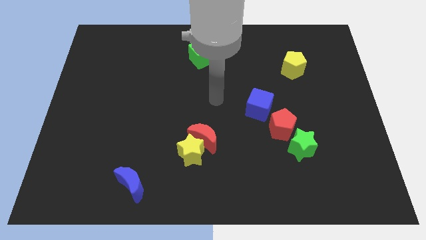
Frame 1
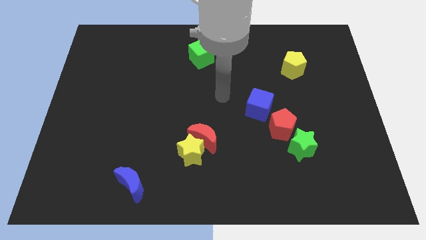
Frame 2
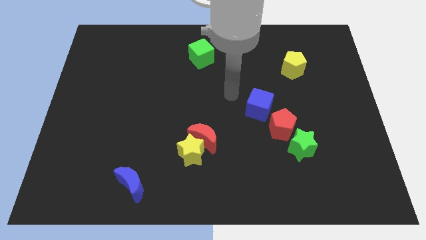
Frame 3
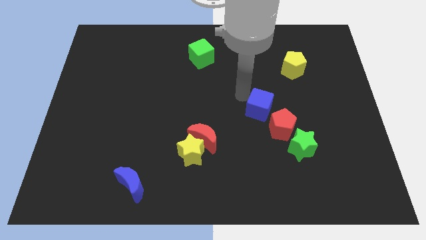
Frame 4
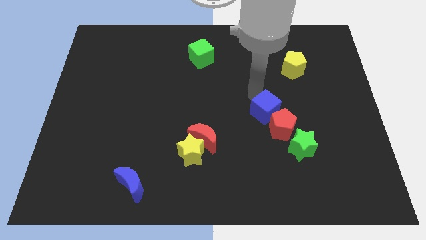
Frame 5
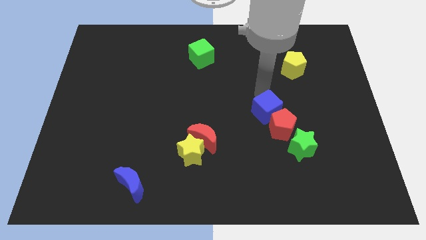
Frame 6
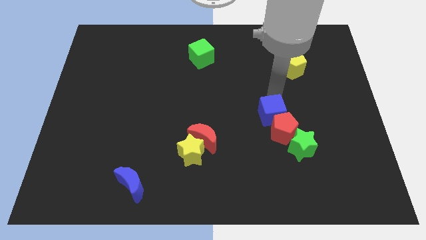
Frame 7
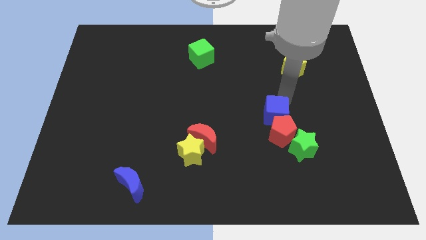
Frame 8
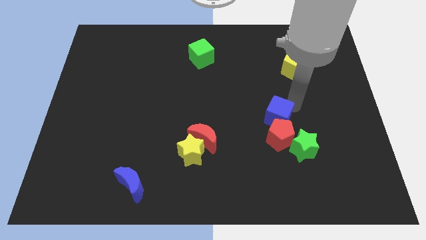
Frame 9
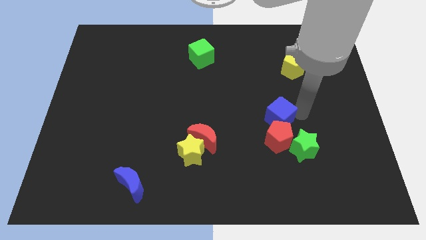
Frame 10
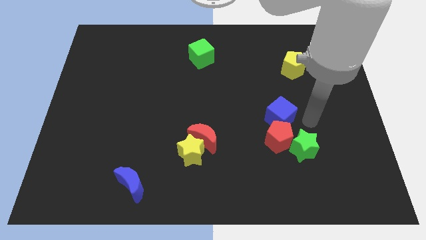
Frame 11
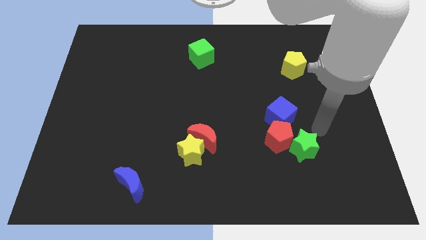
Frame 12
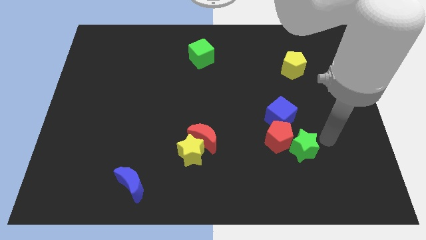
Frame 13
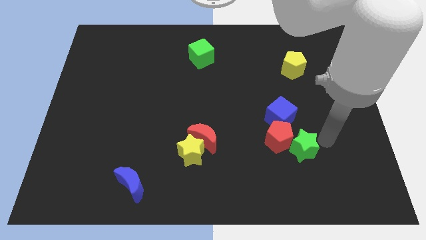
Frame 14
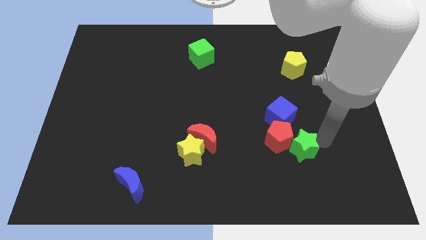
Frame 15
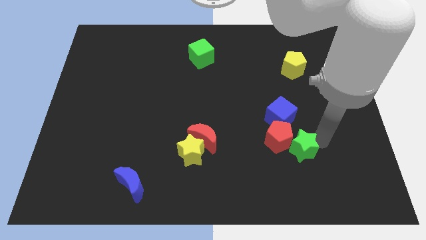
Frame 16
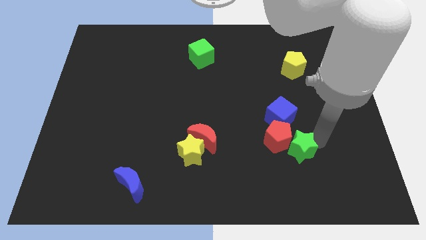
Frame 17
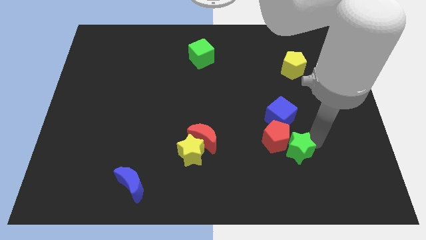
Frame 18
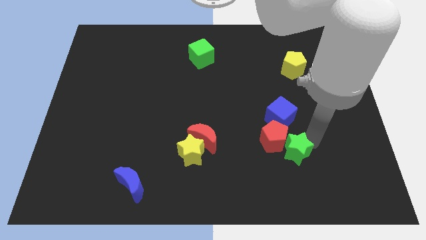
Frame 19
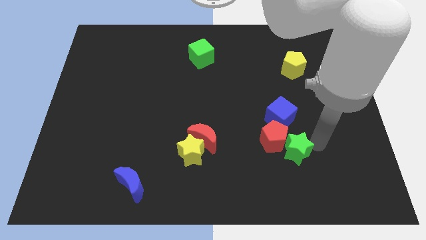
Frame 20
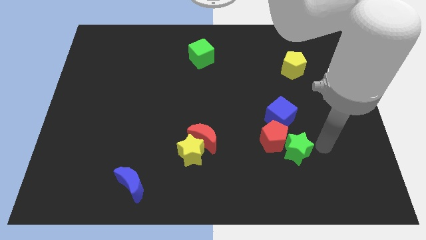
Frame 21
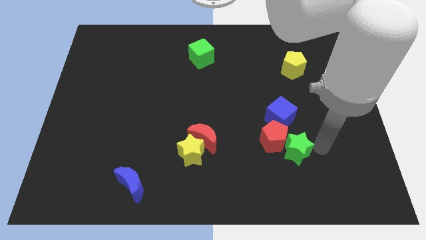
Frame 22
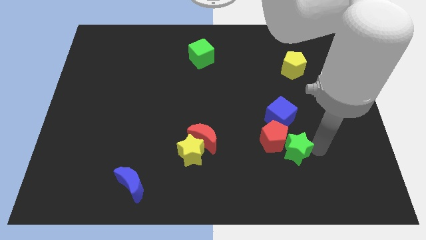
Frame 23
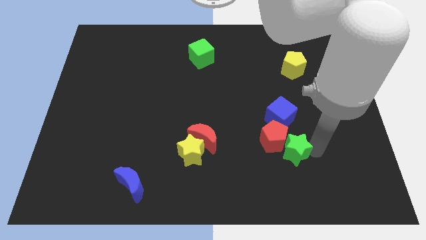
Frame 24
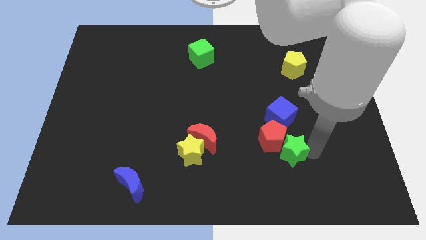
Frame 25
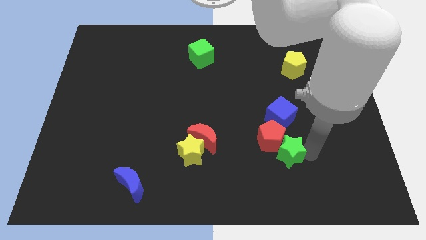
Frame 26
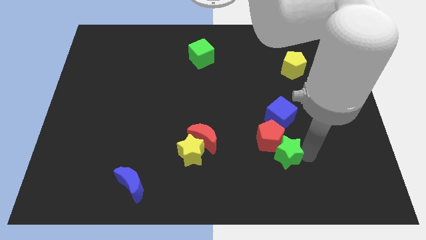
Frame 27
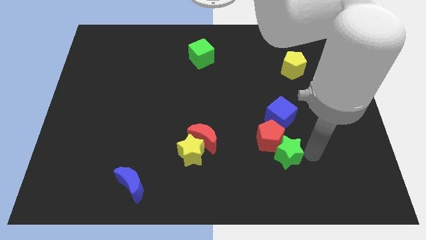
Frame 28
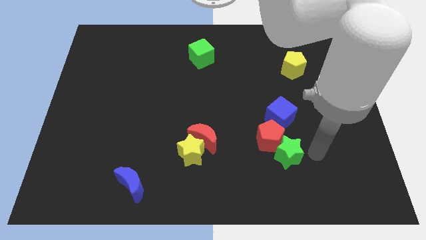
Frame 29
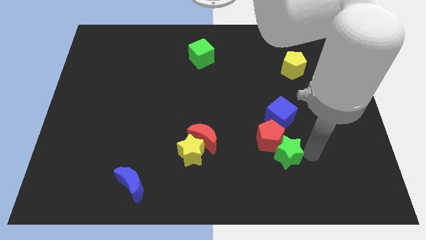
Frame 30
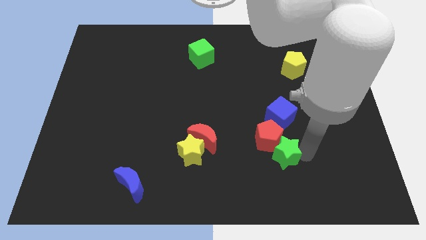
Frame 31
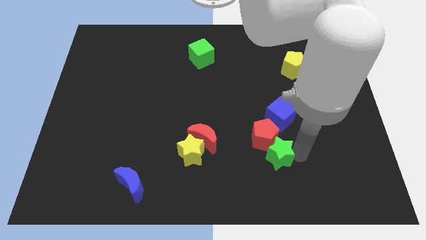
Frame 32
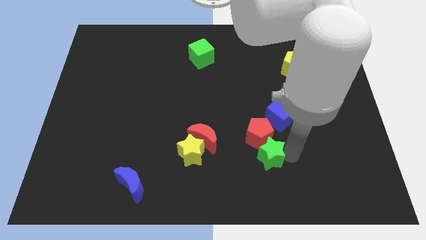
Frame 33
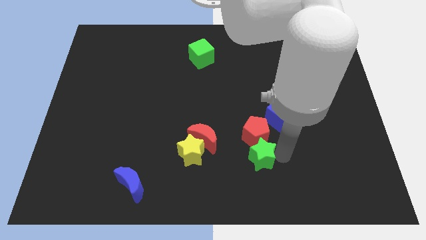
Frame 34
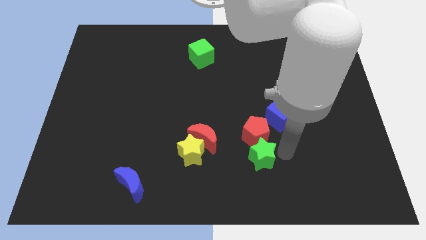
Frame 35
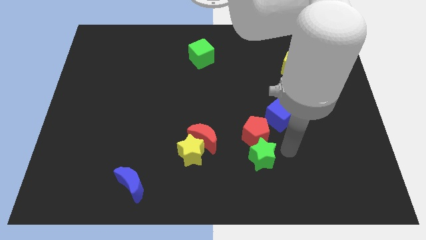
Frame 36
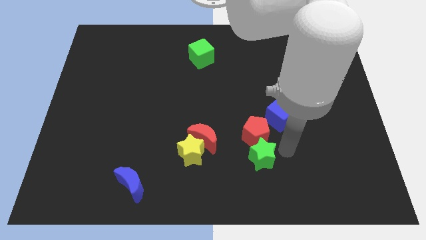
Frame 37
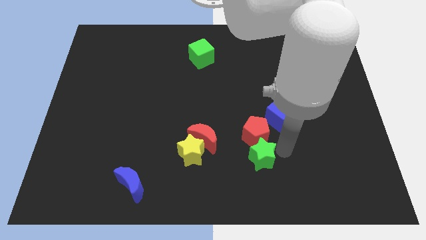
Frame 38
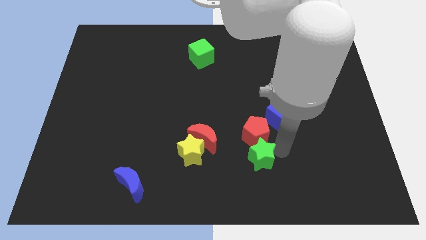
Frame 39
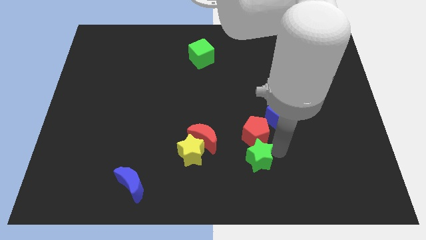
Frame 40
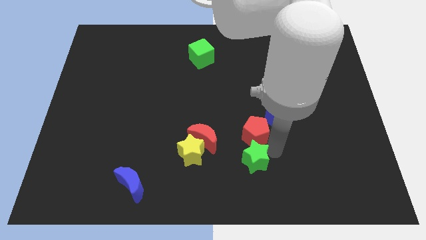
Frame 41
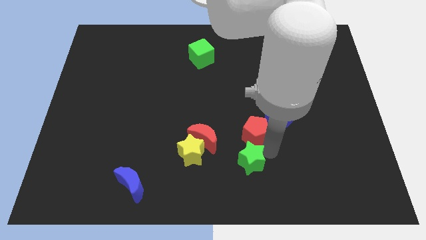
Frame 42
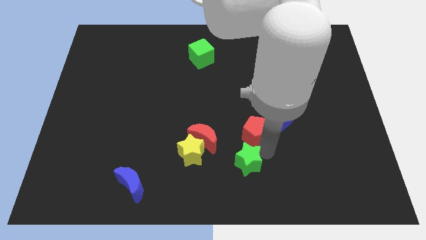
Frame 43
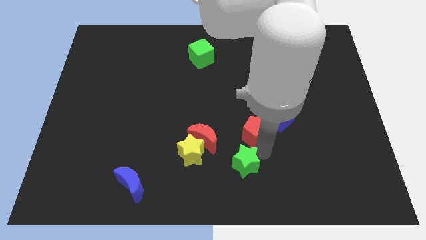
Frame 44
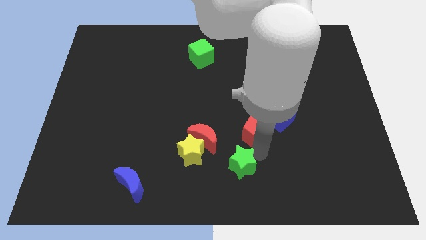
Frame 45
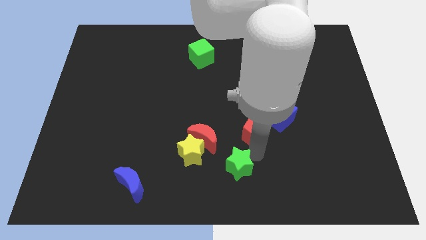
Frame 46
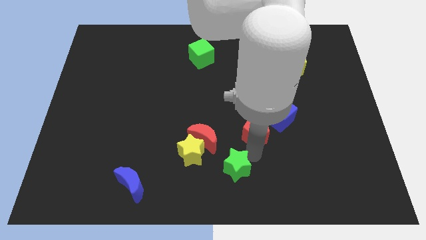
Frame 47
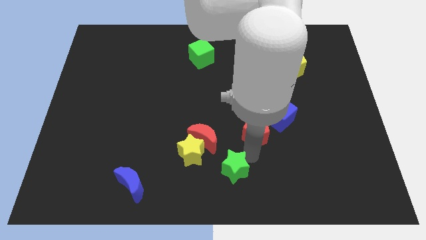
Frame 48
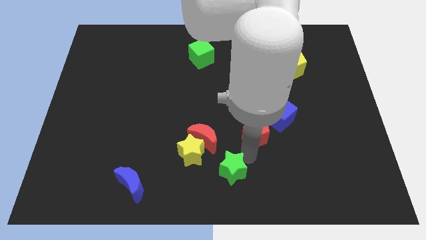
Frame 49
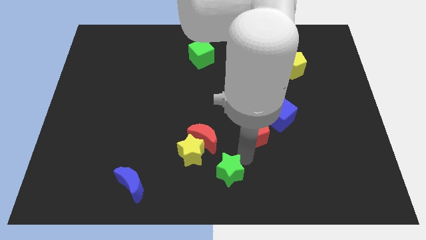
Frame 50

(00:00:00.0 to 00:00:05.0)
put the green star below the red moon

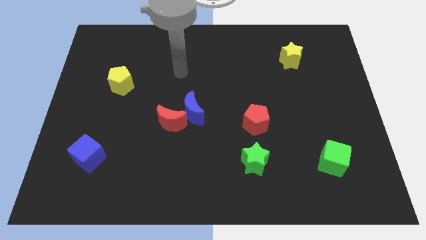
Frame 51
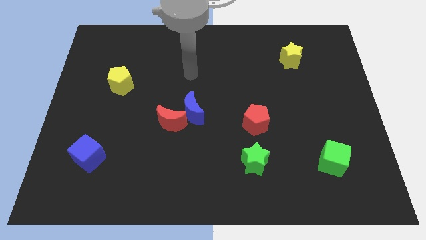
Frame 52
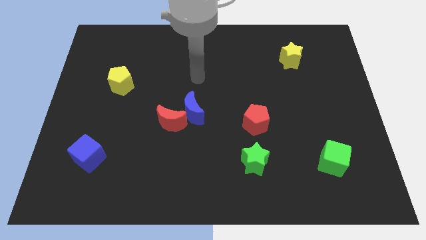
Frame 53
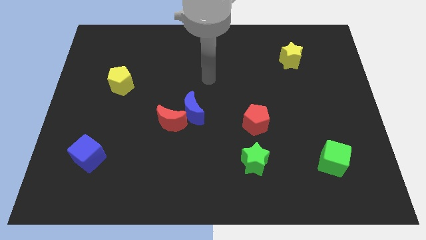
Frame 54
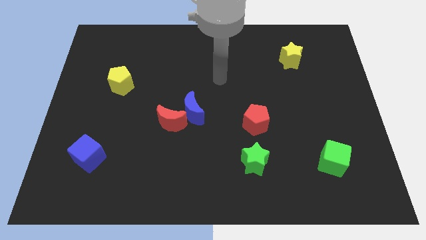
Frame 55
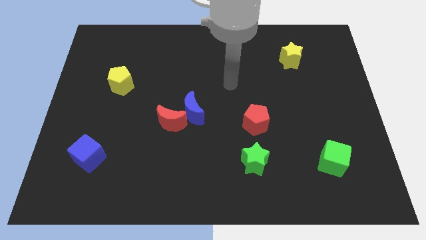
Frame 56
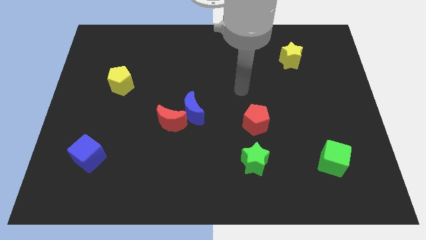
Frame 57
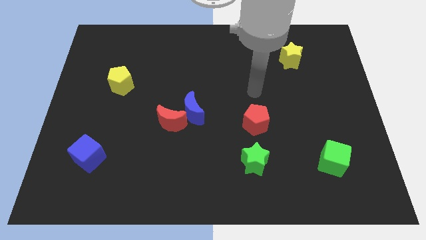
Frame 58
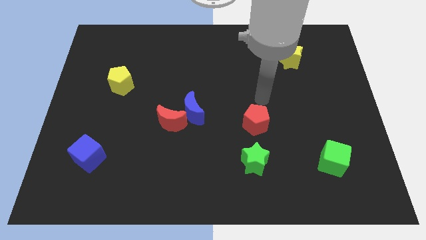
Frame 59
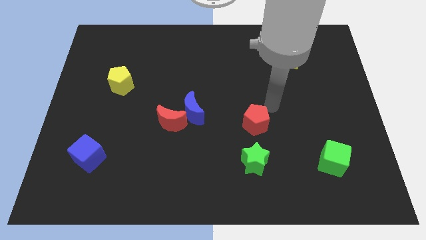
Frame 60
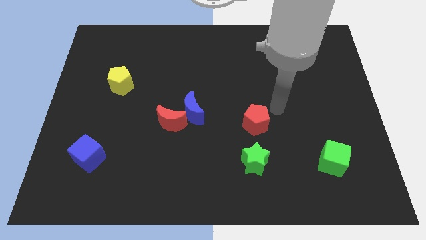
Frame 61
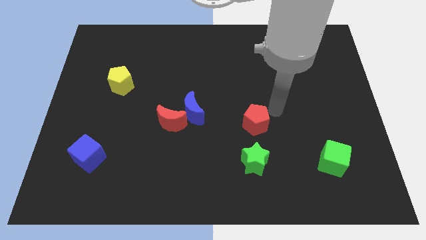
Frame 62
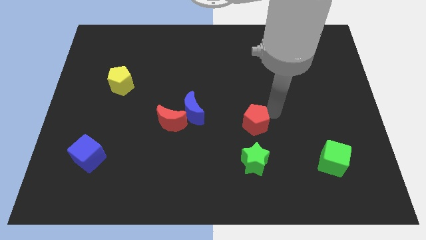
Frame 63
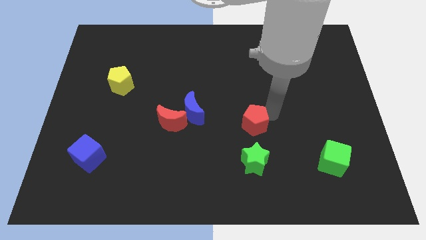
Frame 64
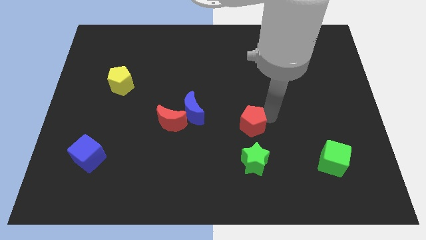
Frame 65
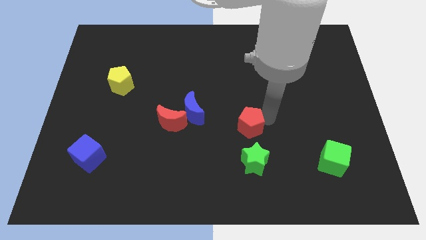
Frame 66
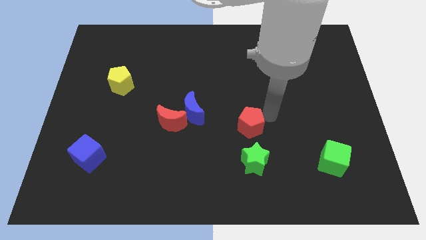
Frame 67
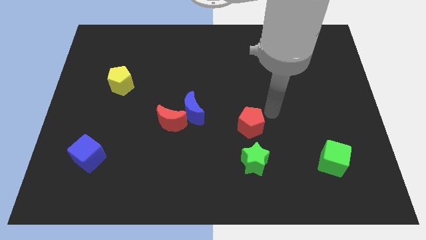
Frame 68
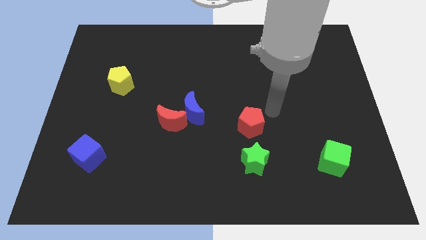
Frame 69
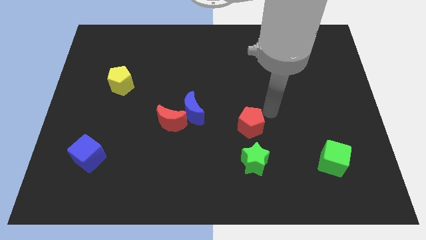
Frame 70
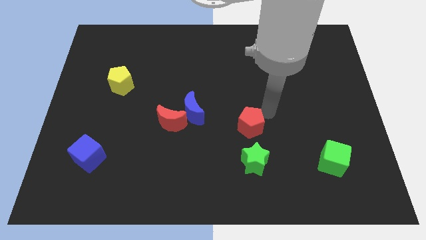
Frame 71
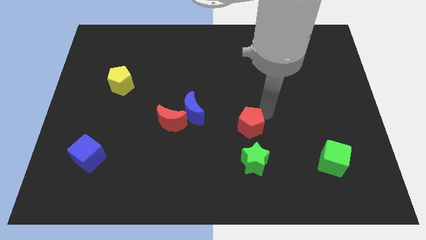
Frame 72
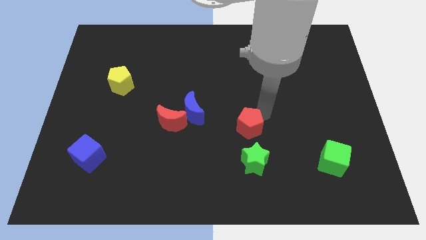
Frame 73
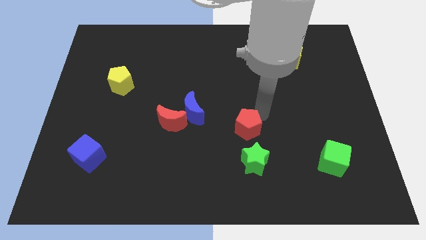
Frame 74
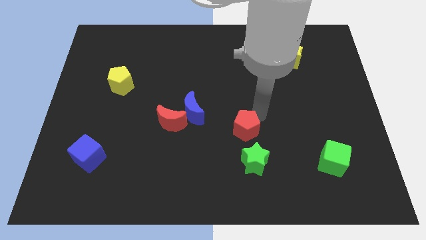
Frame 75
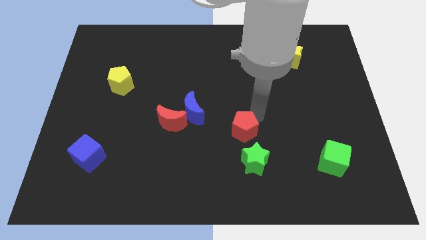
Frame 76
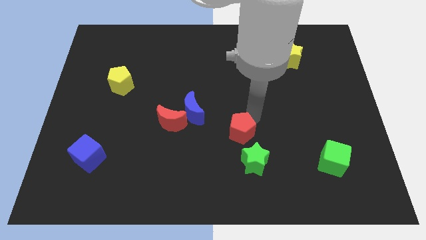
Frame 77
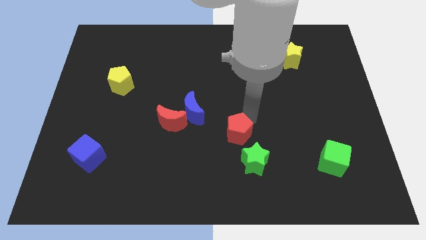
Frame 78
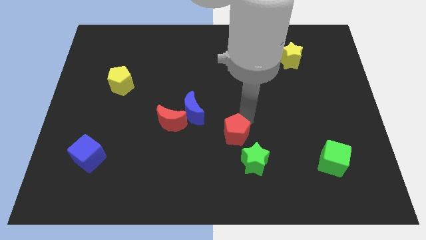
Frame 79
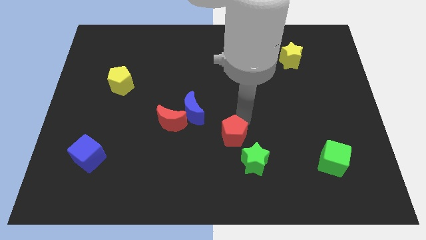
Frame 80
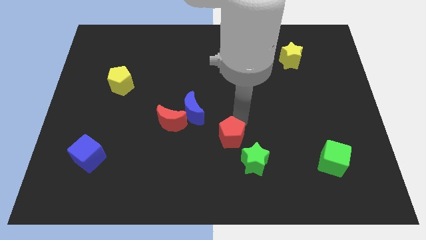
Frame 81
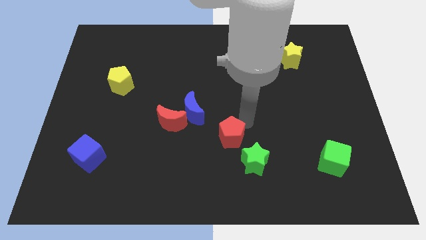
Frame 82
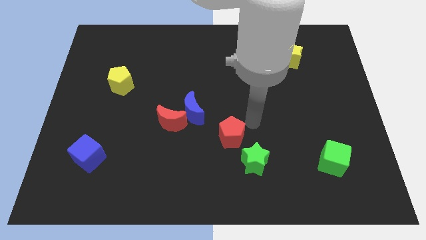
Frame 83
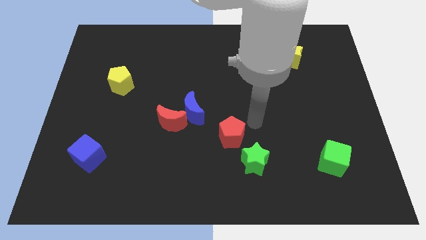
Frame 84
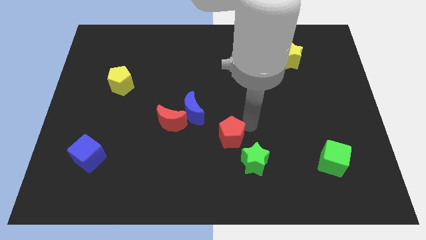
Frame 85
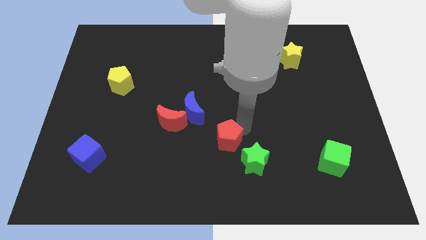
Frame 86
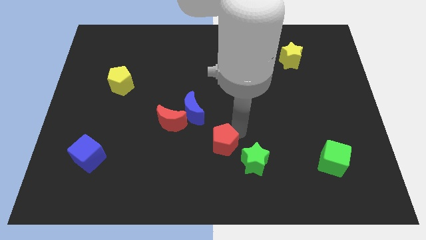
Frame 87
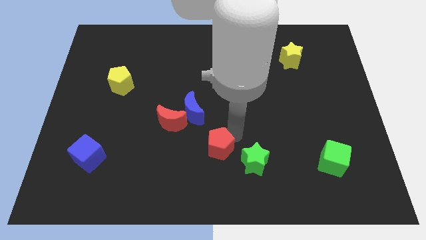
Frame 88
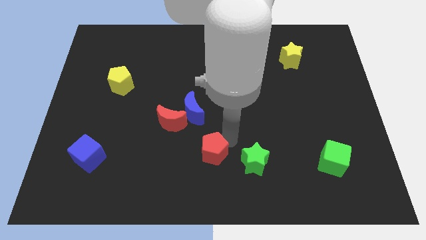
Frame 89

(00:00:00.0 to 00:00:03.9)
move the red pentagon to the bottom of the blue moon
